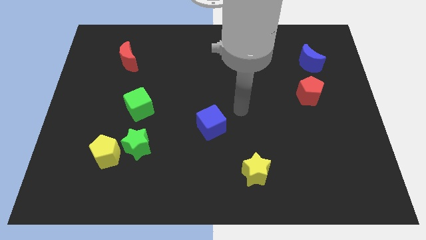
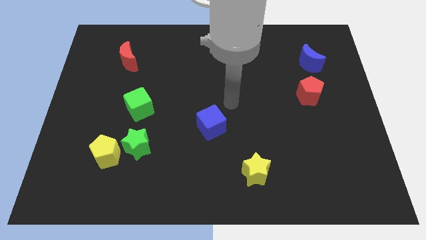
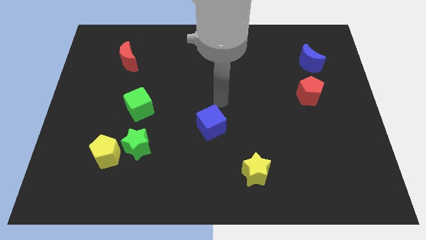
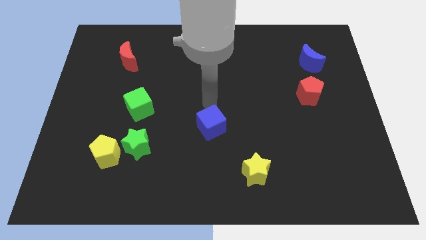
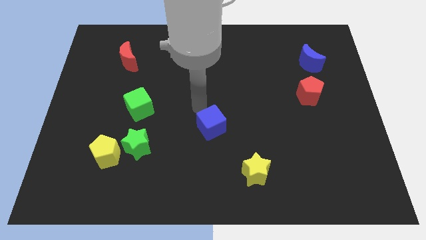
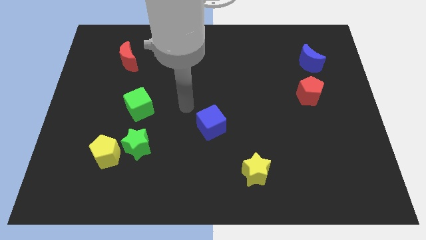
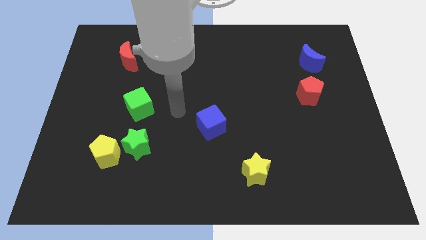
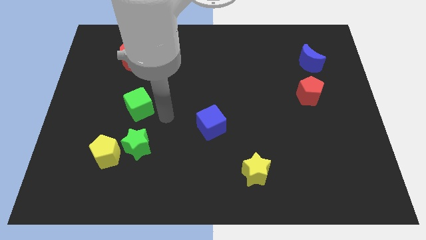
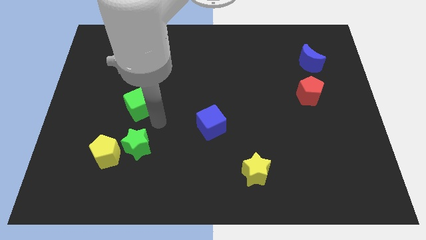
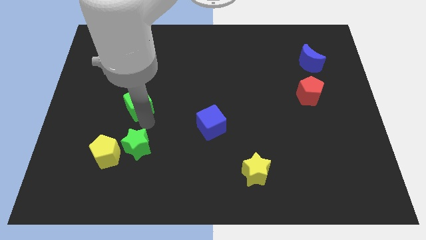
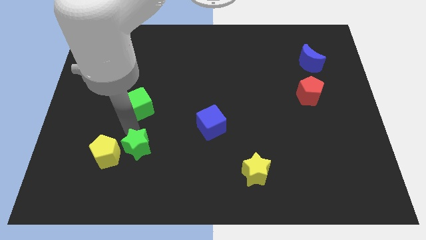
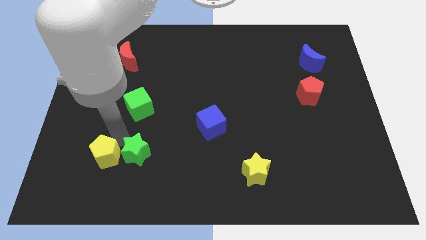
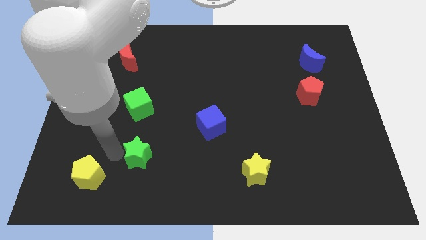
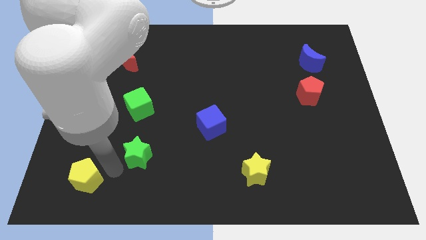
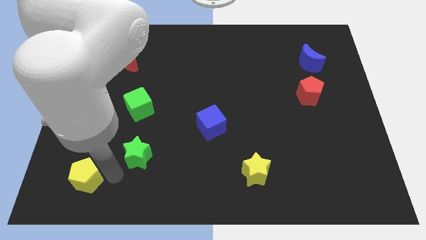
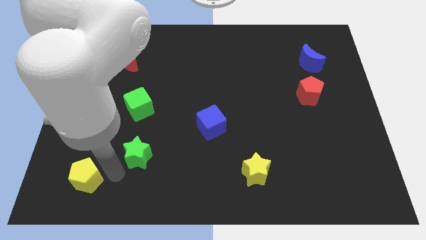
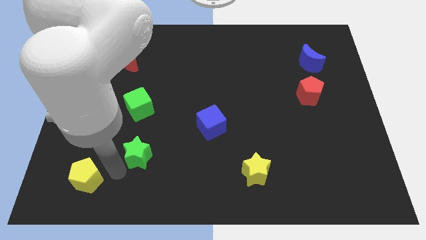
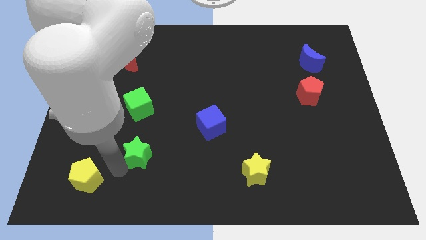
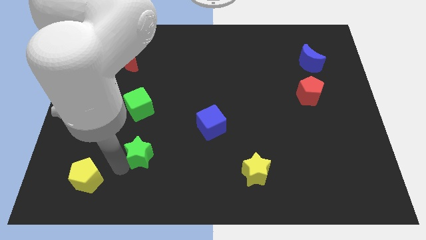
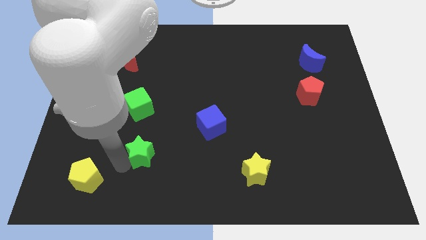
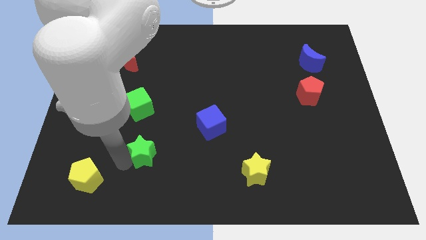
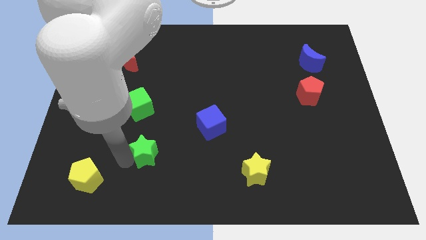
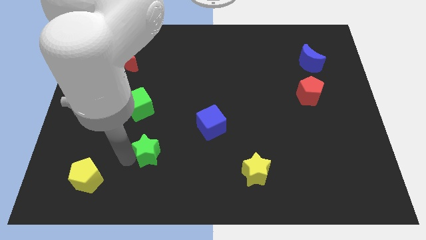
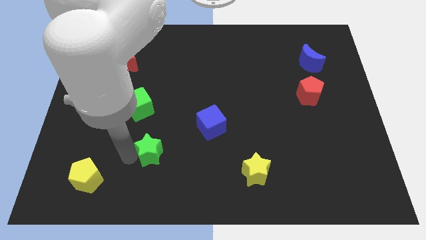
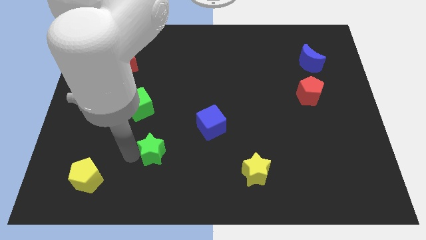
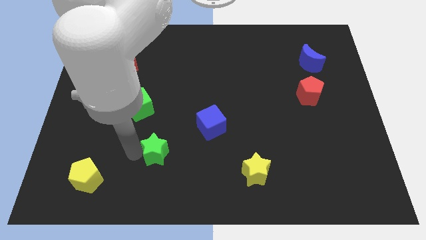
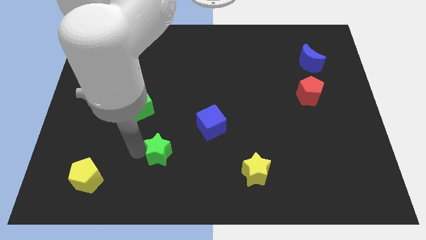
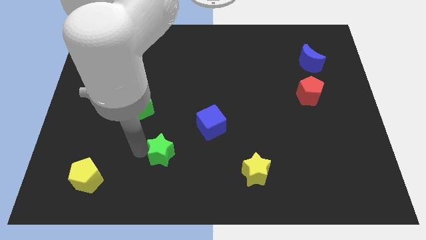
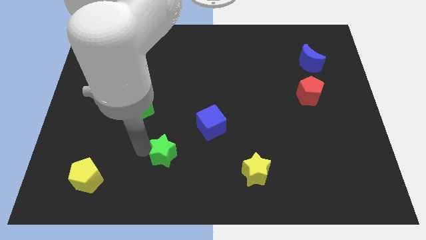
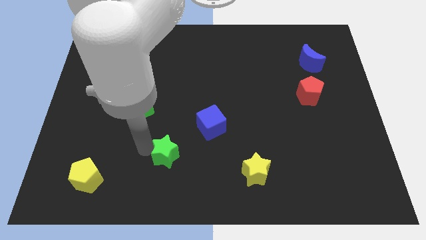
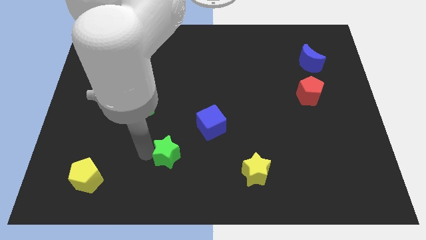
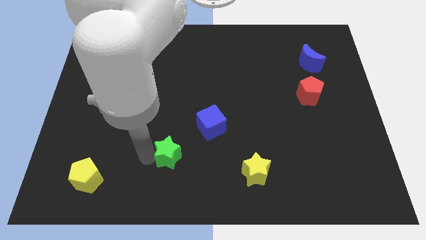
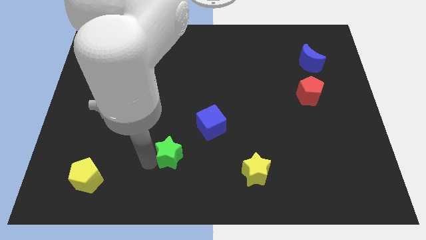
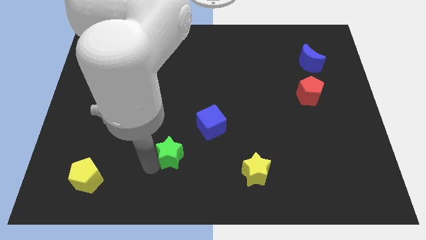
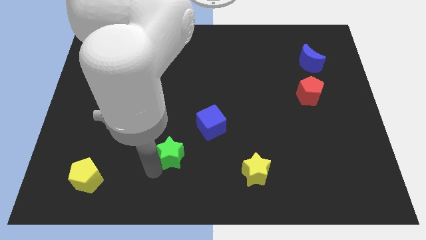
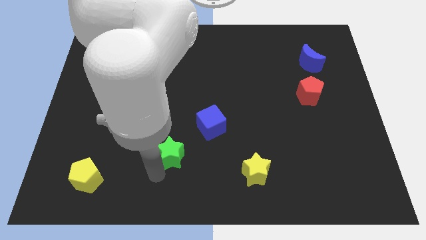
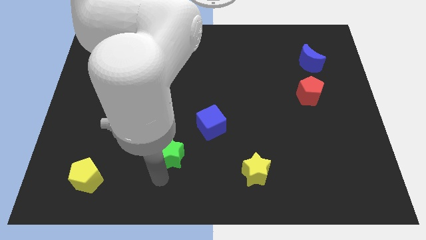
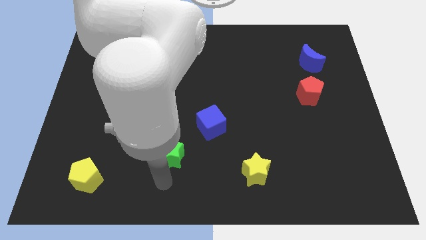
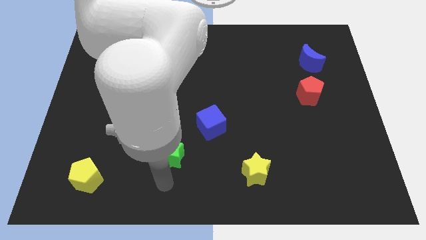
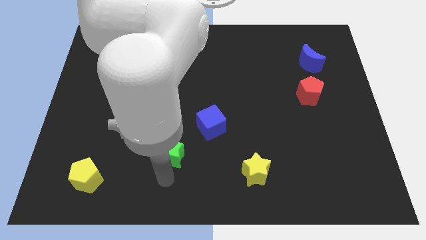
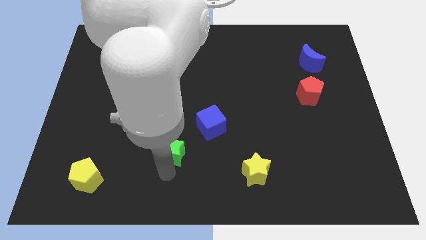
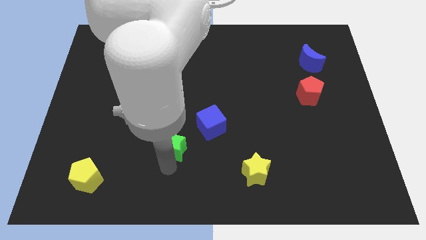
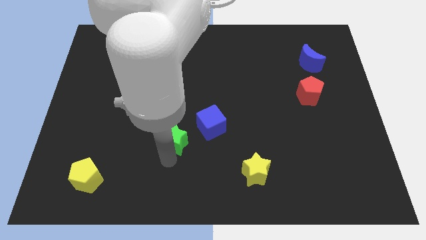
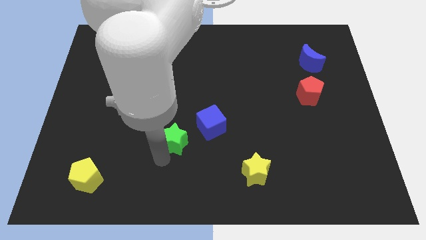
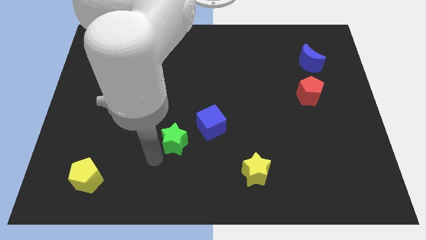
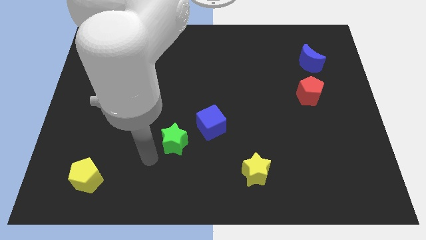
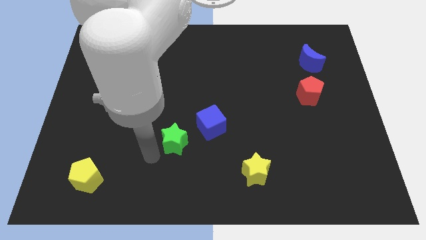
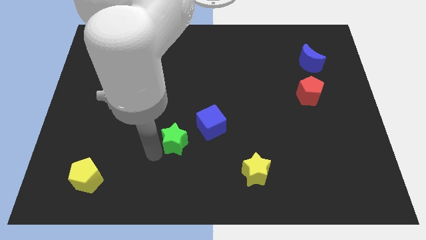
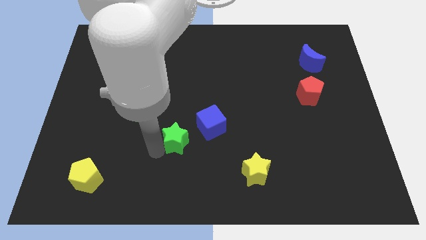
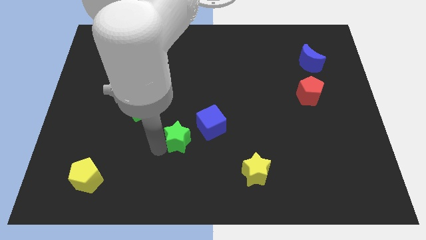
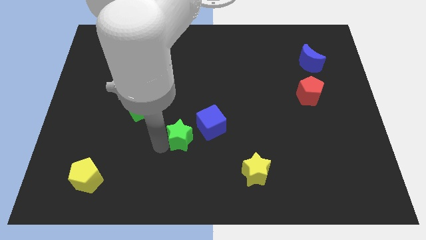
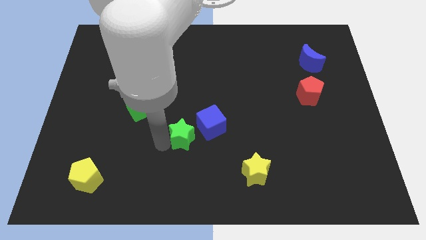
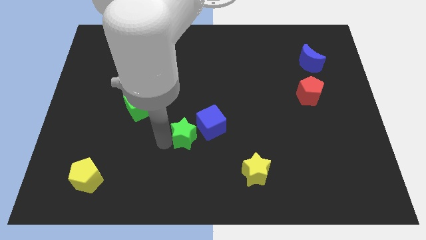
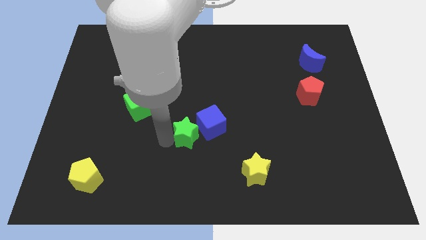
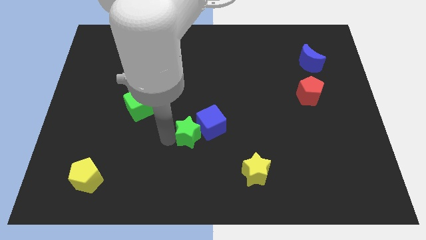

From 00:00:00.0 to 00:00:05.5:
slide the green star towards the blue cube

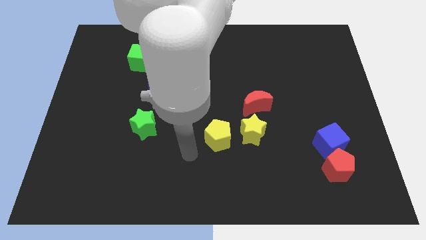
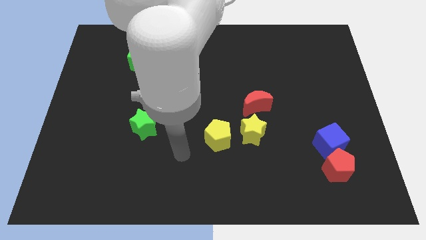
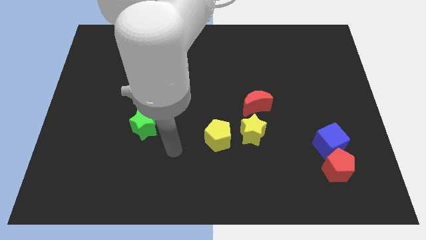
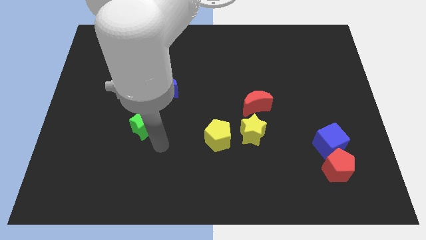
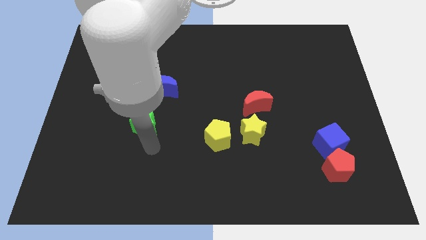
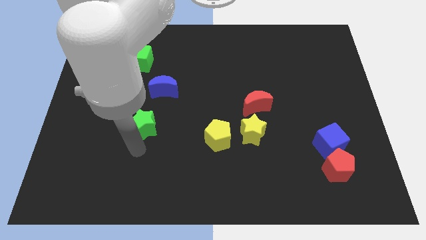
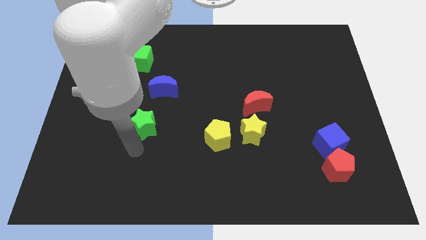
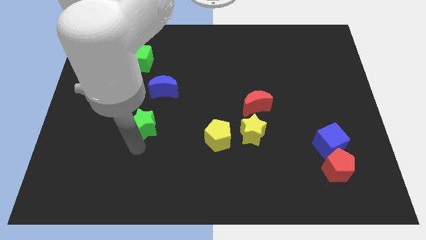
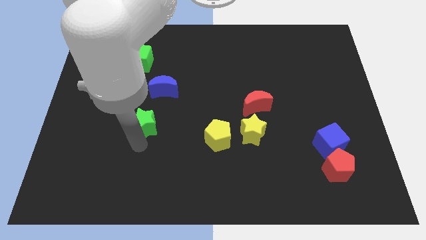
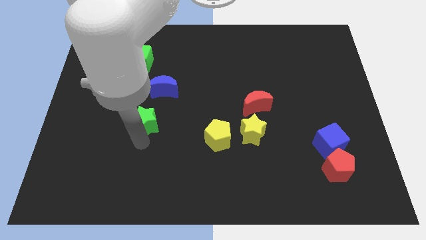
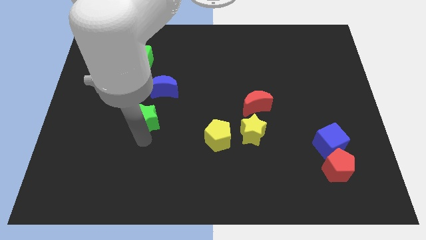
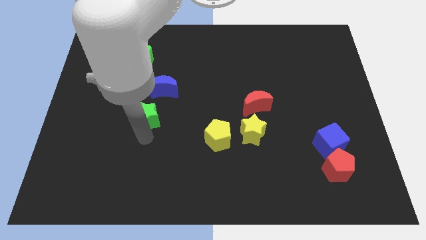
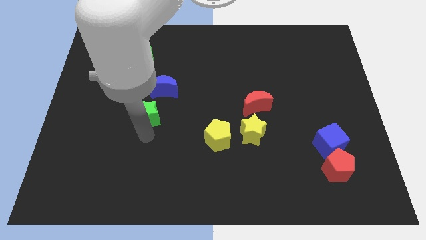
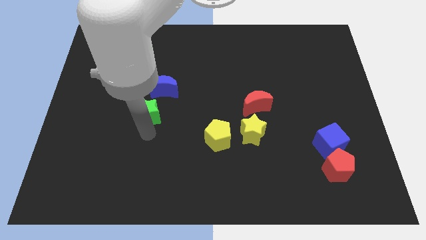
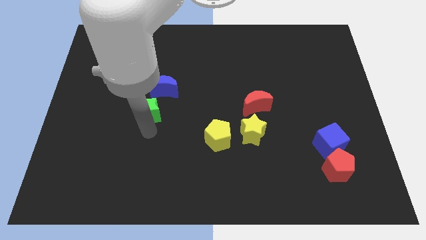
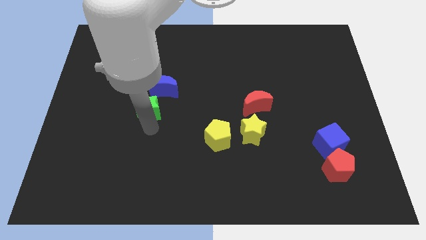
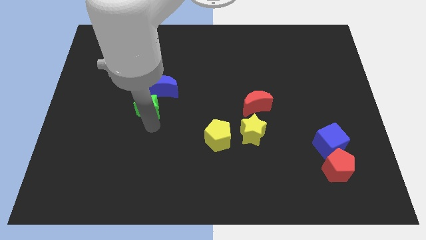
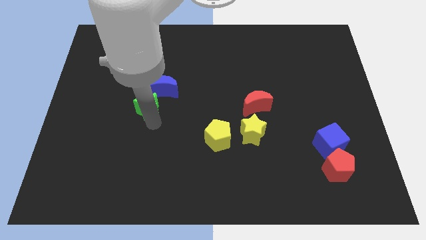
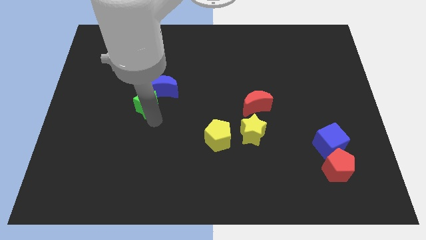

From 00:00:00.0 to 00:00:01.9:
slide the green star to the blue moon

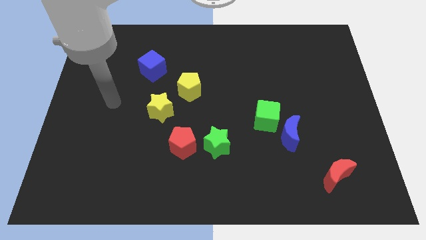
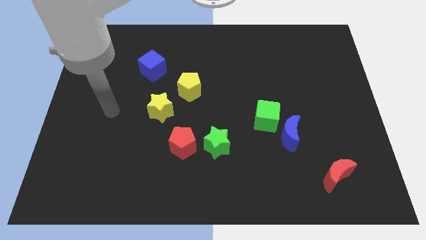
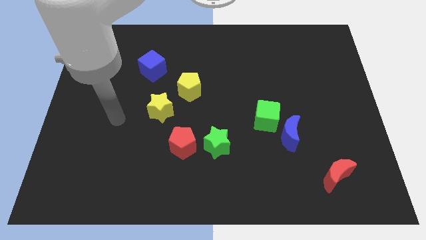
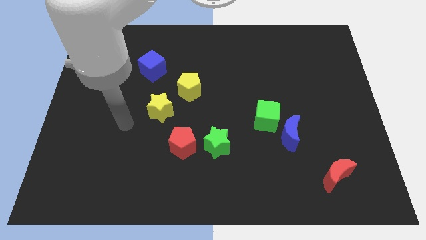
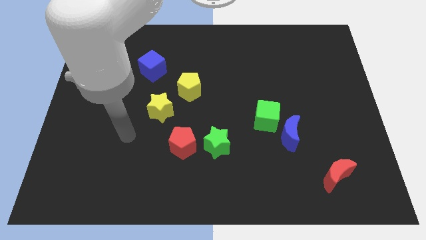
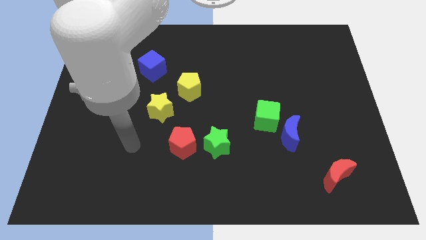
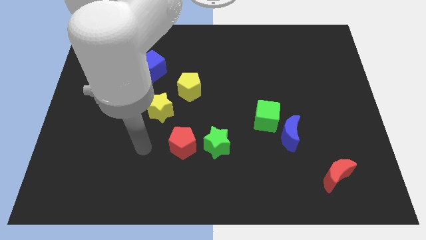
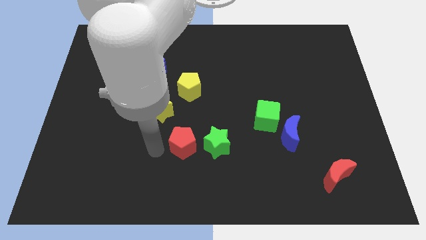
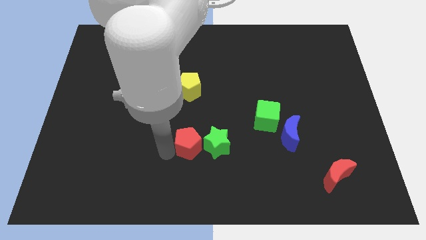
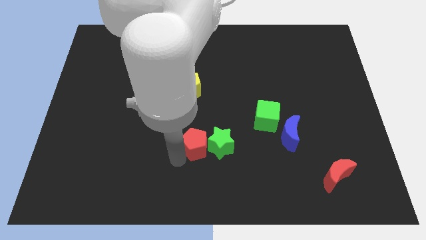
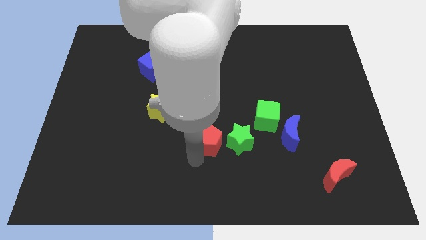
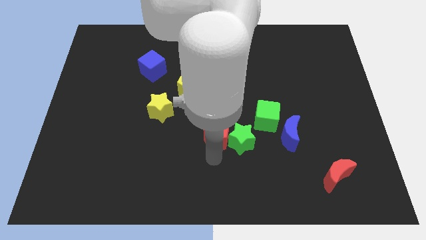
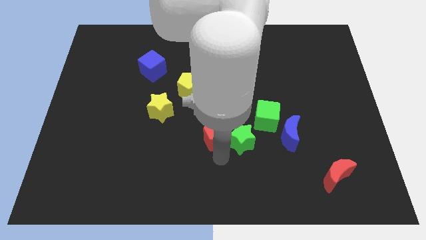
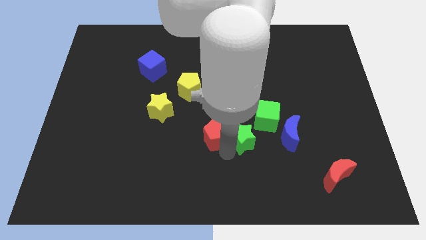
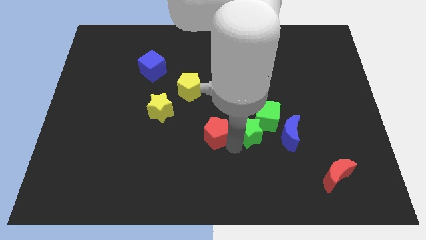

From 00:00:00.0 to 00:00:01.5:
push the green star towards the green cube
